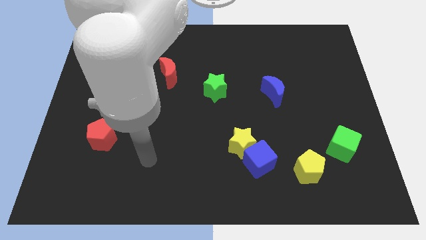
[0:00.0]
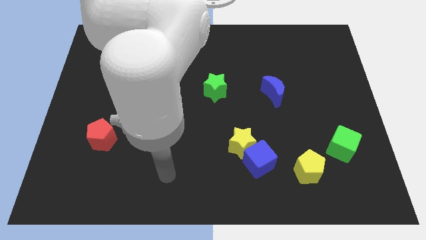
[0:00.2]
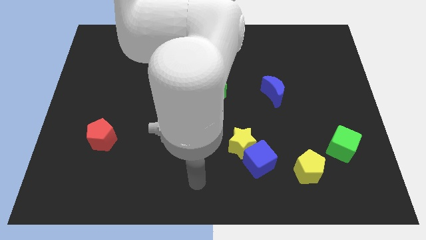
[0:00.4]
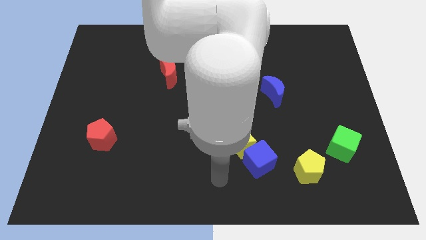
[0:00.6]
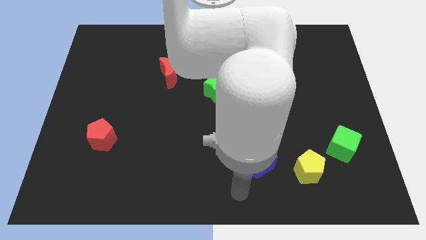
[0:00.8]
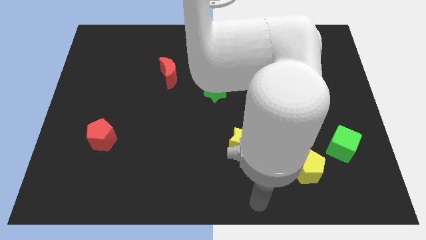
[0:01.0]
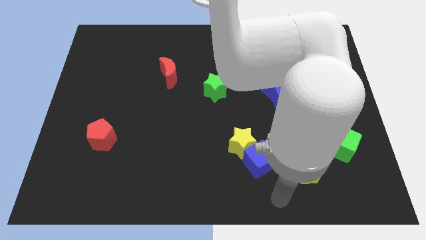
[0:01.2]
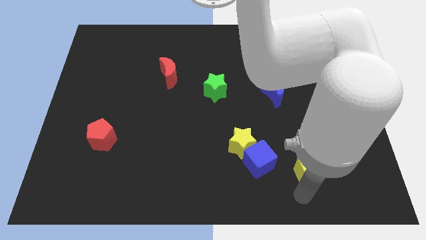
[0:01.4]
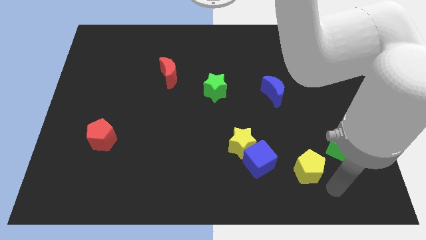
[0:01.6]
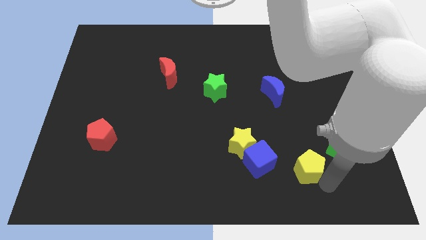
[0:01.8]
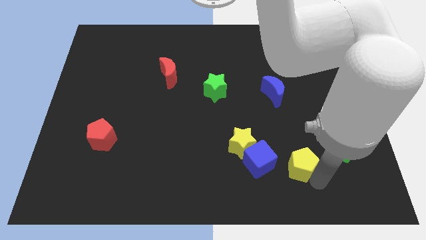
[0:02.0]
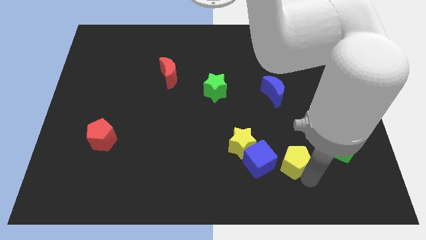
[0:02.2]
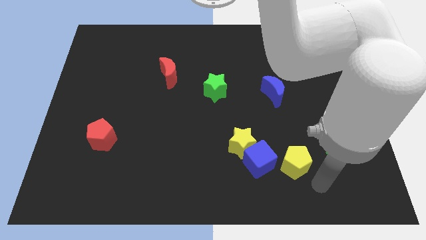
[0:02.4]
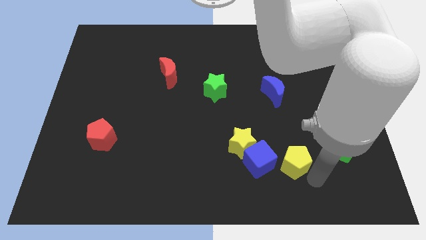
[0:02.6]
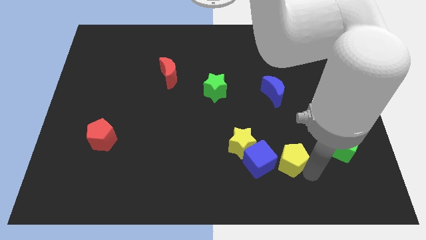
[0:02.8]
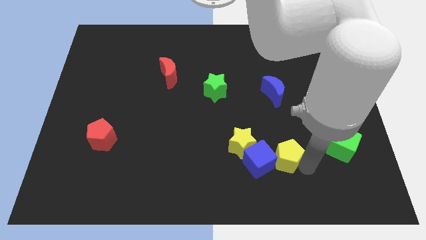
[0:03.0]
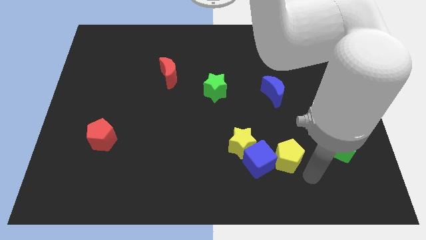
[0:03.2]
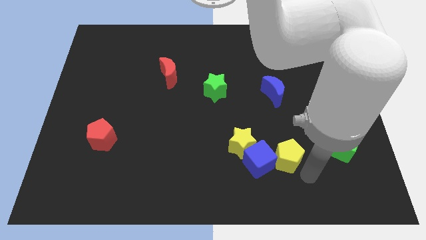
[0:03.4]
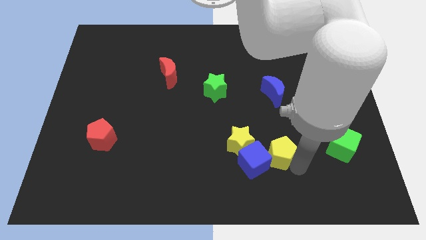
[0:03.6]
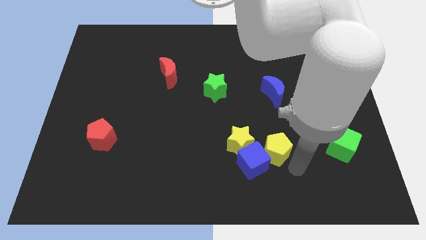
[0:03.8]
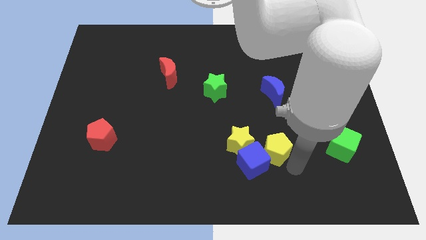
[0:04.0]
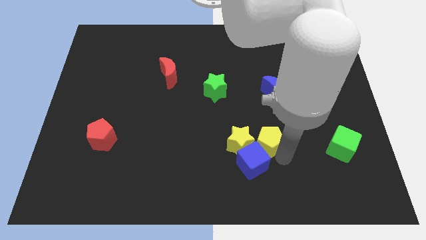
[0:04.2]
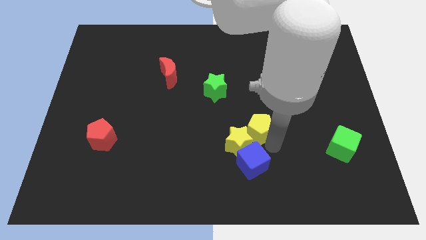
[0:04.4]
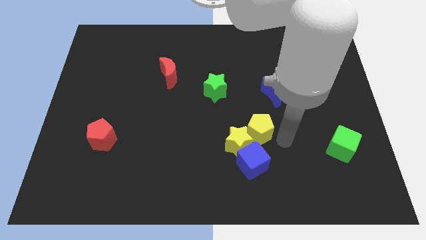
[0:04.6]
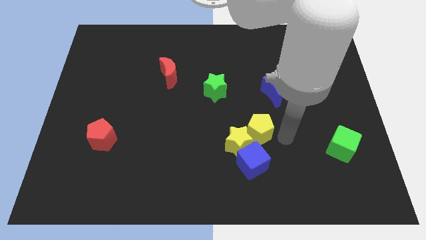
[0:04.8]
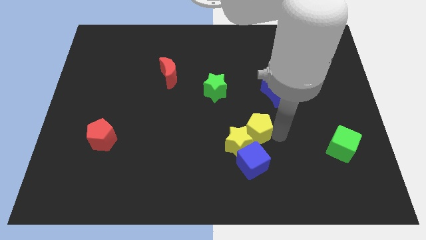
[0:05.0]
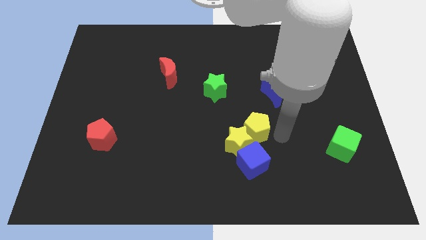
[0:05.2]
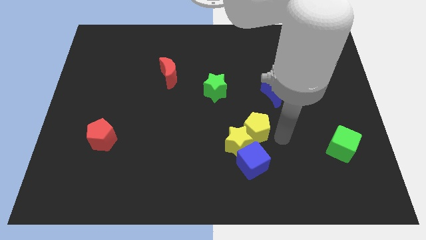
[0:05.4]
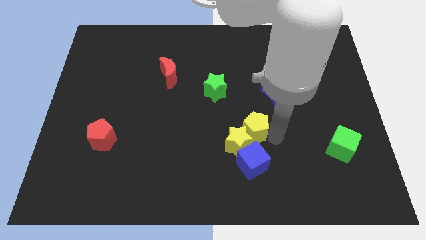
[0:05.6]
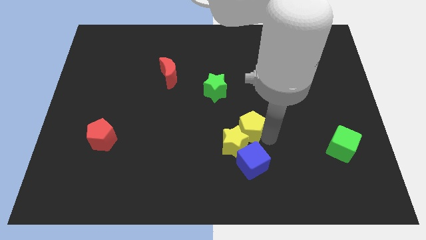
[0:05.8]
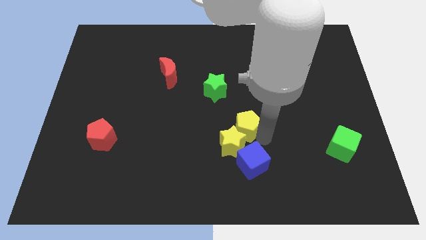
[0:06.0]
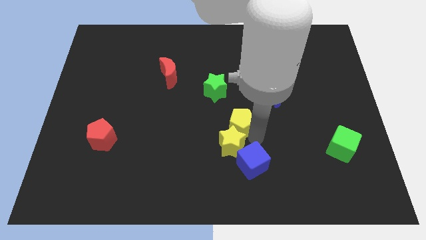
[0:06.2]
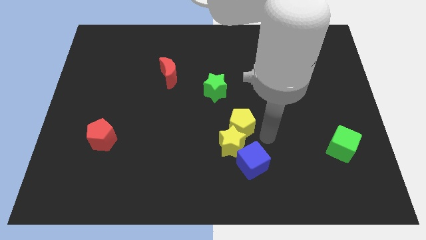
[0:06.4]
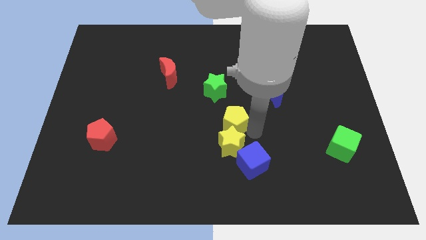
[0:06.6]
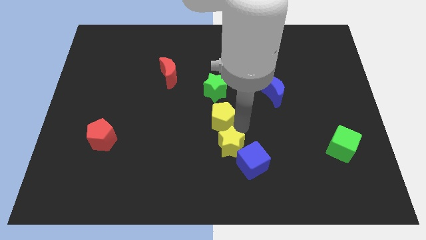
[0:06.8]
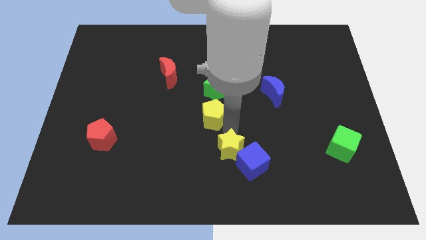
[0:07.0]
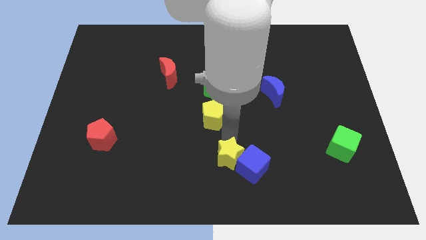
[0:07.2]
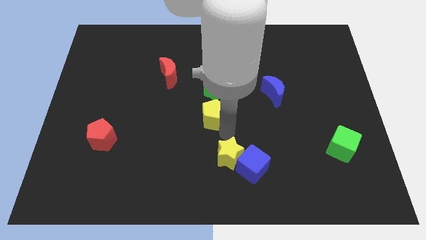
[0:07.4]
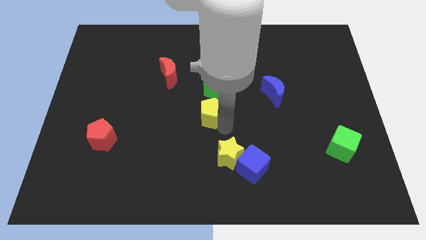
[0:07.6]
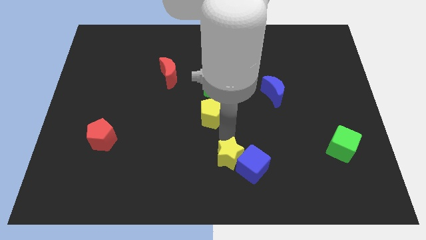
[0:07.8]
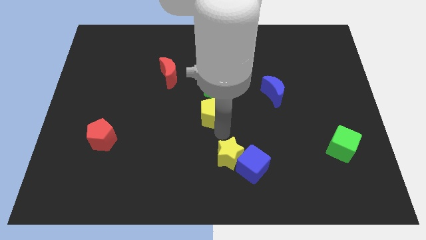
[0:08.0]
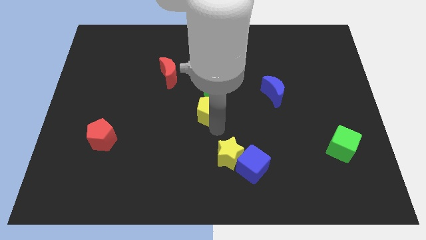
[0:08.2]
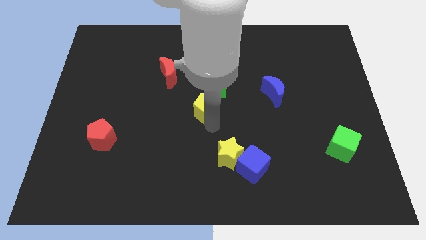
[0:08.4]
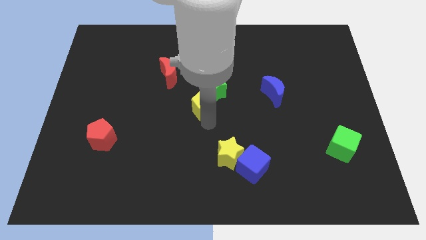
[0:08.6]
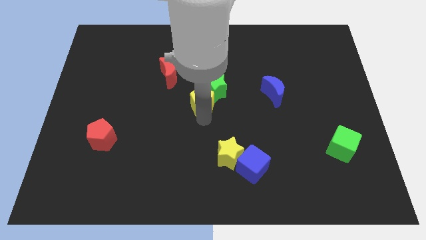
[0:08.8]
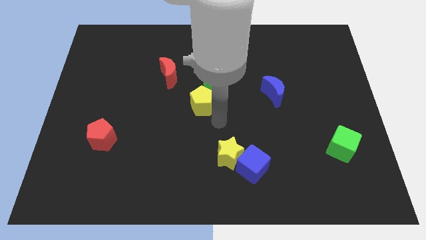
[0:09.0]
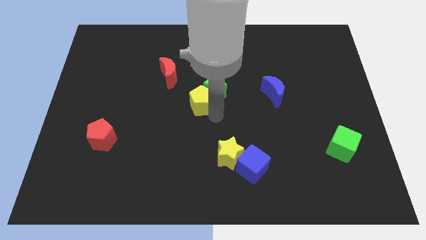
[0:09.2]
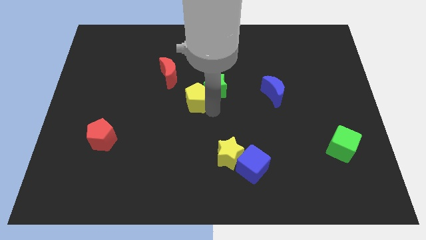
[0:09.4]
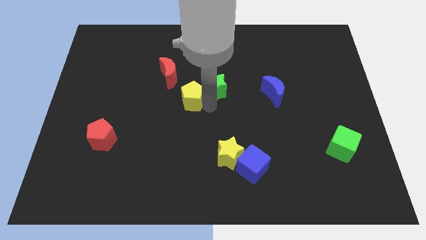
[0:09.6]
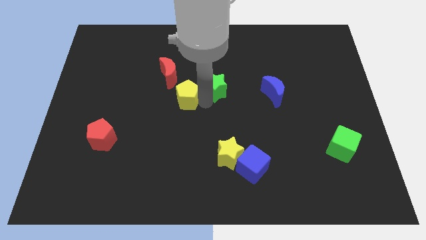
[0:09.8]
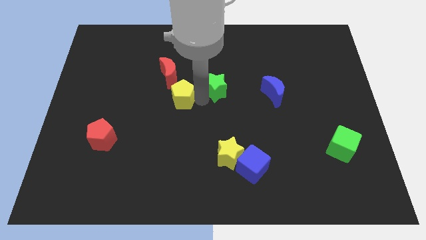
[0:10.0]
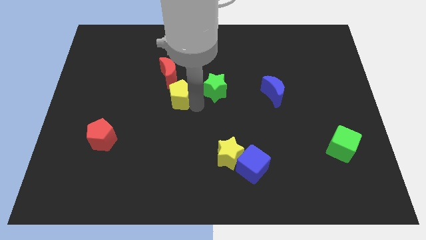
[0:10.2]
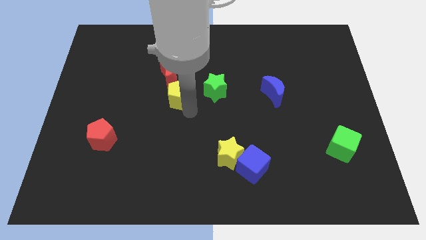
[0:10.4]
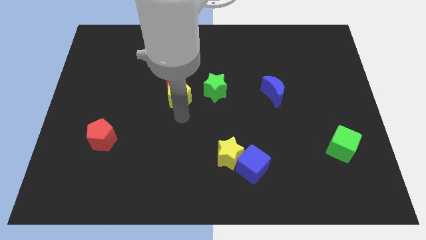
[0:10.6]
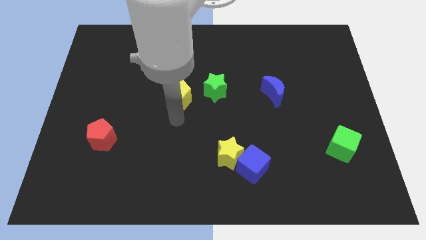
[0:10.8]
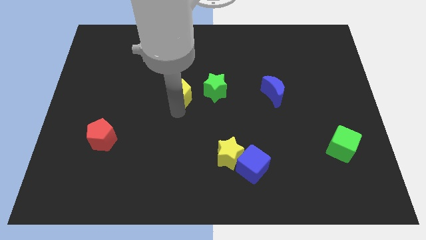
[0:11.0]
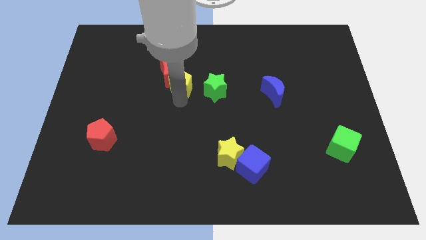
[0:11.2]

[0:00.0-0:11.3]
move the yellow pentagon next to the red moon

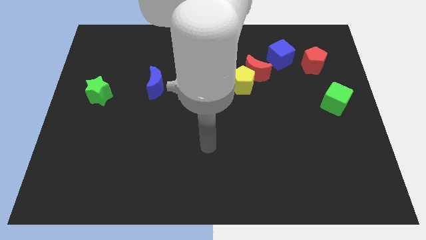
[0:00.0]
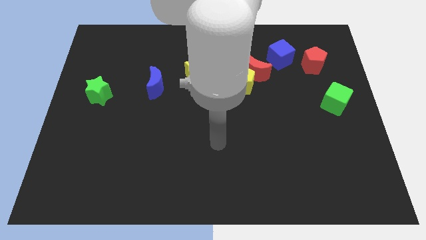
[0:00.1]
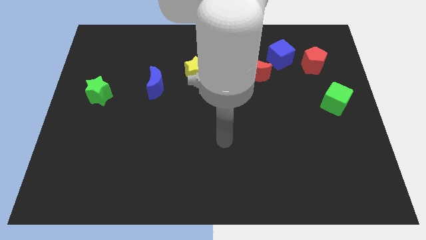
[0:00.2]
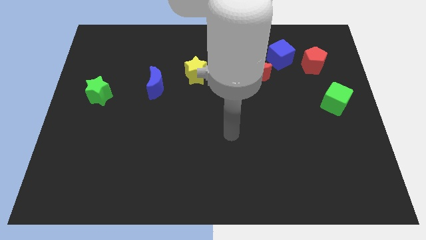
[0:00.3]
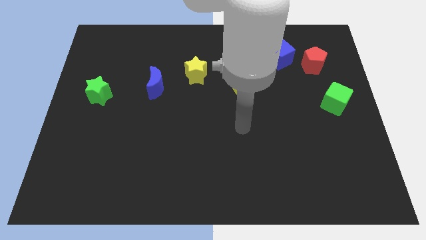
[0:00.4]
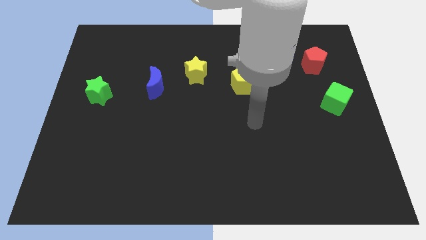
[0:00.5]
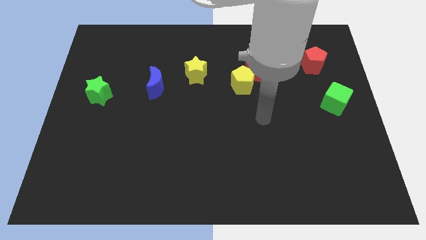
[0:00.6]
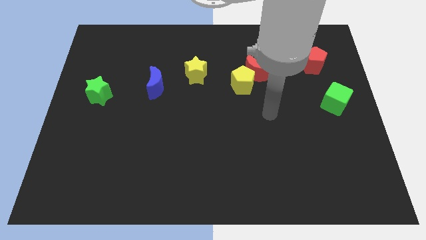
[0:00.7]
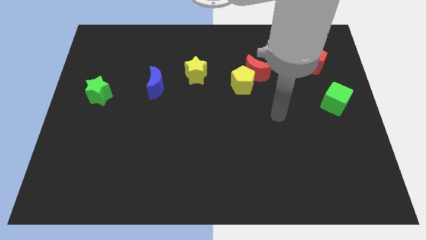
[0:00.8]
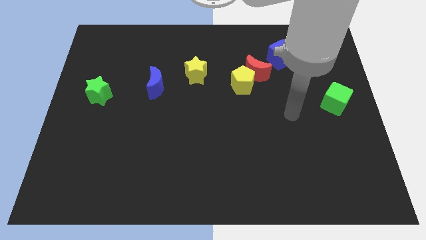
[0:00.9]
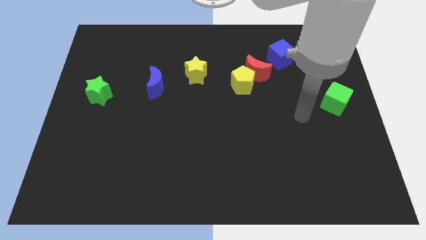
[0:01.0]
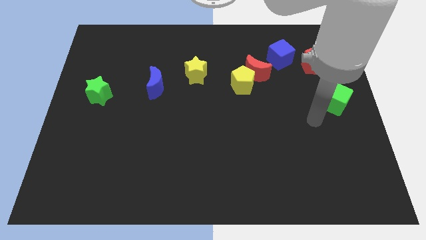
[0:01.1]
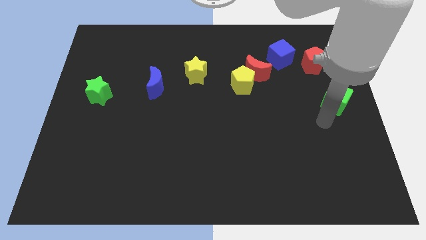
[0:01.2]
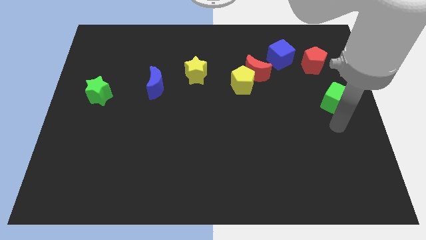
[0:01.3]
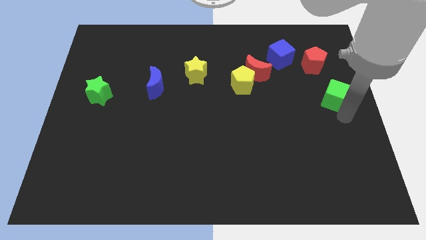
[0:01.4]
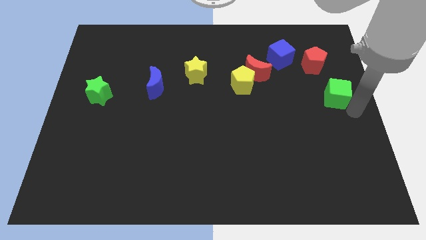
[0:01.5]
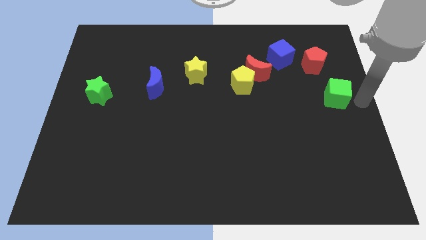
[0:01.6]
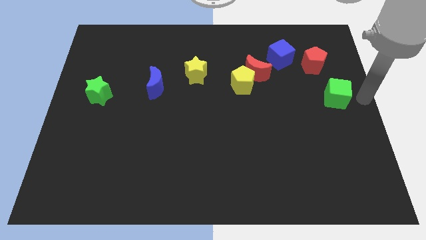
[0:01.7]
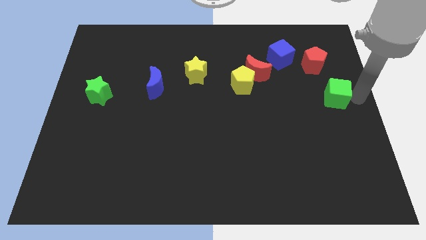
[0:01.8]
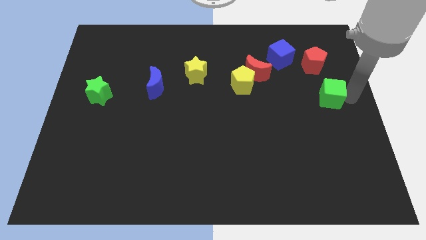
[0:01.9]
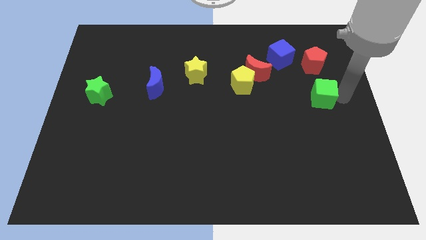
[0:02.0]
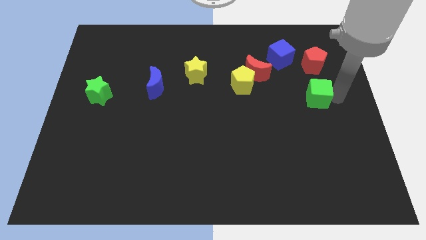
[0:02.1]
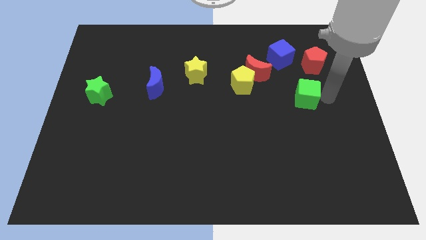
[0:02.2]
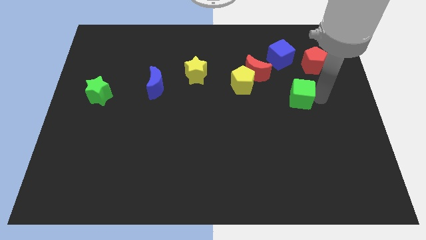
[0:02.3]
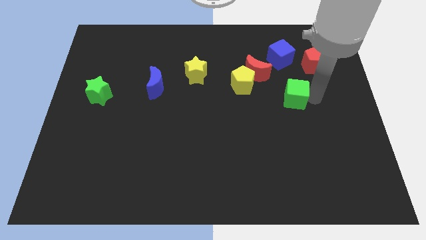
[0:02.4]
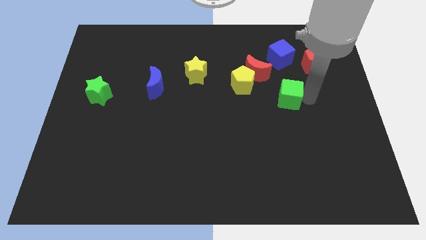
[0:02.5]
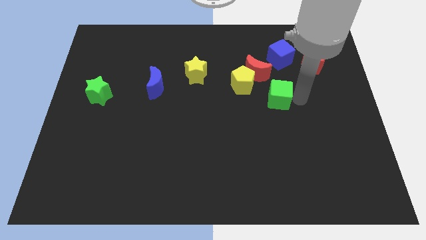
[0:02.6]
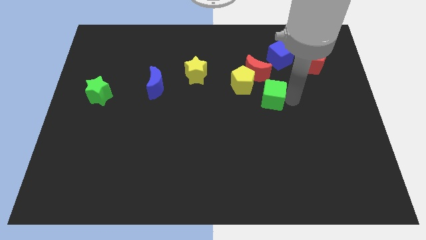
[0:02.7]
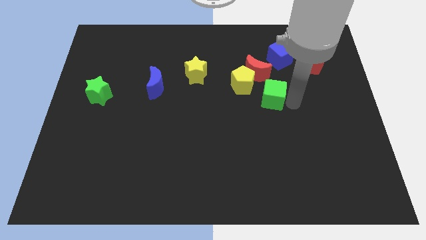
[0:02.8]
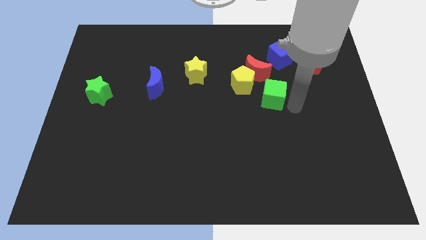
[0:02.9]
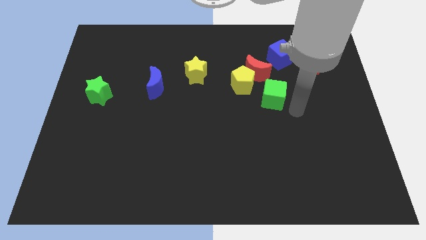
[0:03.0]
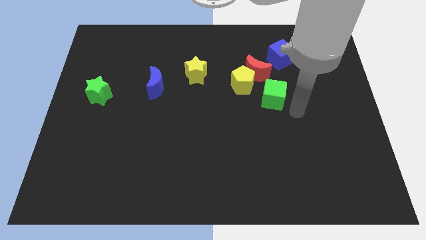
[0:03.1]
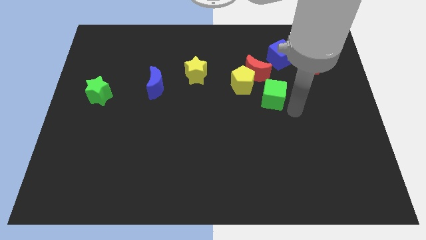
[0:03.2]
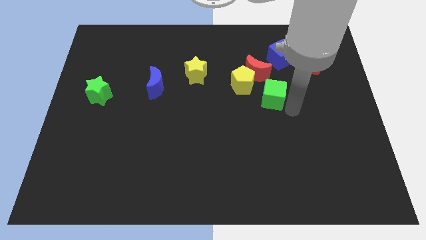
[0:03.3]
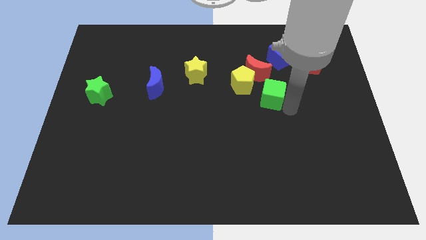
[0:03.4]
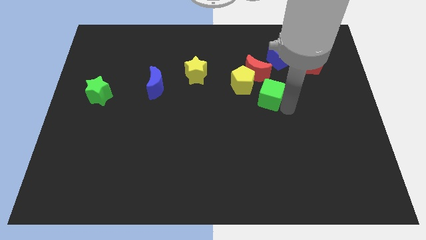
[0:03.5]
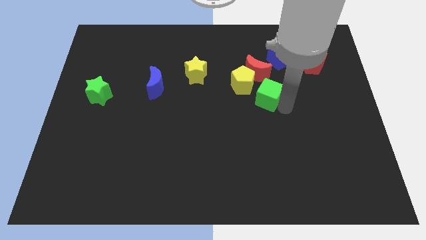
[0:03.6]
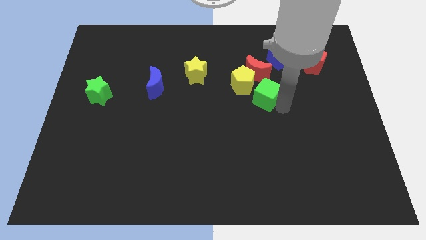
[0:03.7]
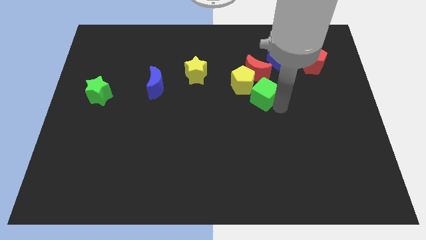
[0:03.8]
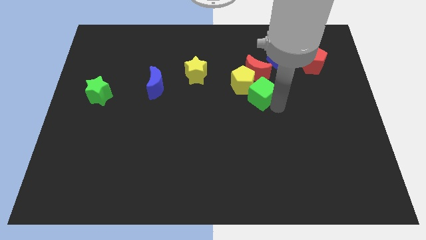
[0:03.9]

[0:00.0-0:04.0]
put the green cube next to the yellow pentagon
